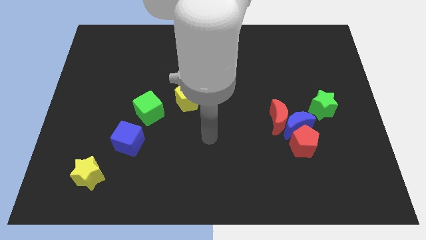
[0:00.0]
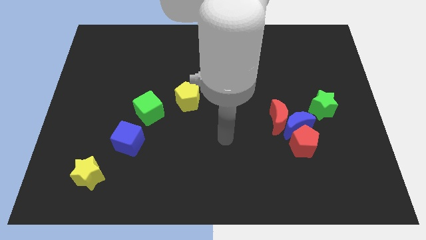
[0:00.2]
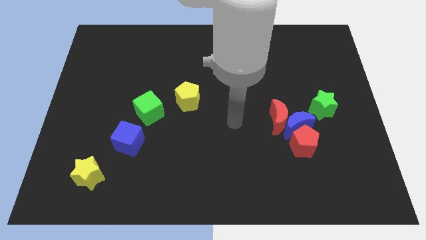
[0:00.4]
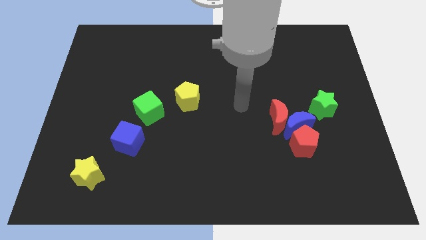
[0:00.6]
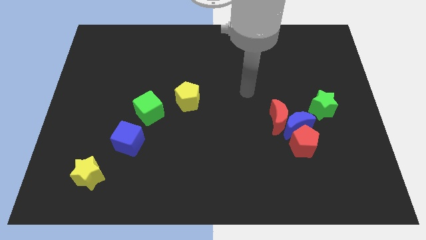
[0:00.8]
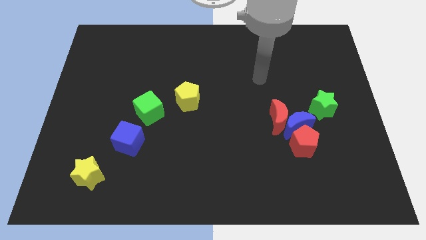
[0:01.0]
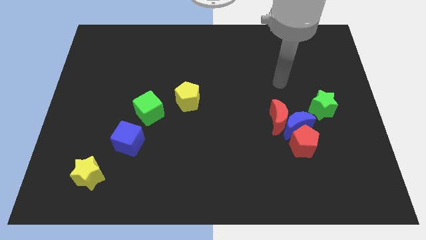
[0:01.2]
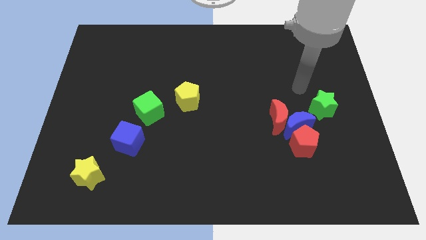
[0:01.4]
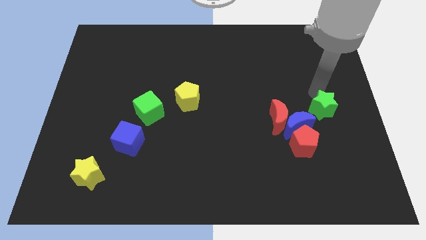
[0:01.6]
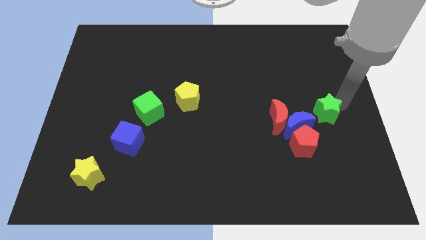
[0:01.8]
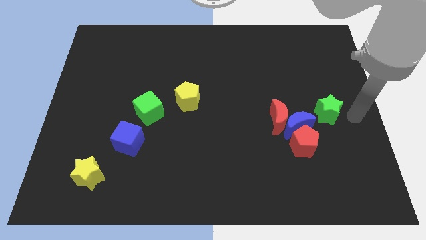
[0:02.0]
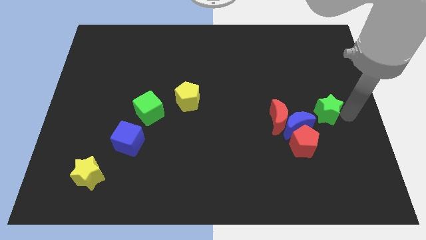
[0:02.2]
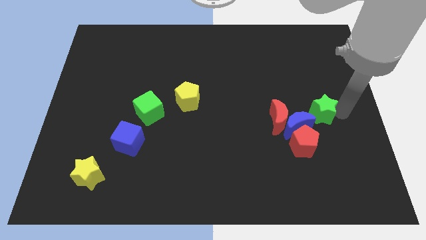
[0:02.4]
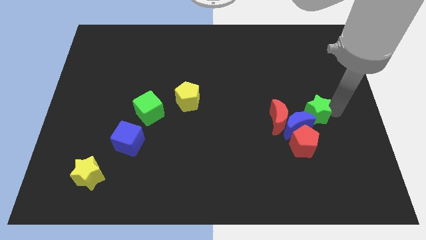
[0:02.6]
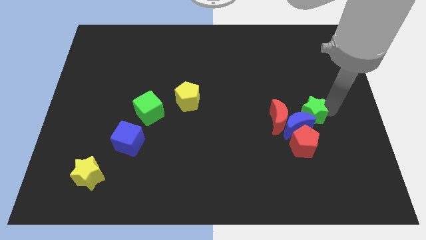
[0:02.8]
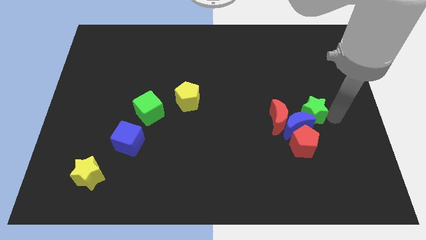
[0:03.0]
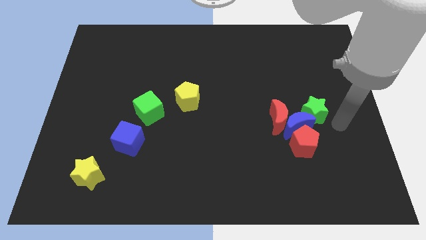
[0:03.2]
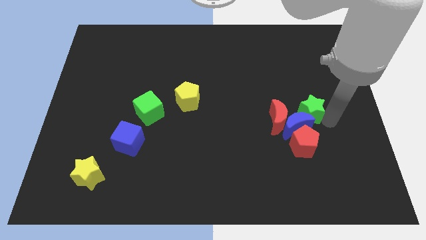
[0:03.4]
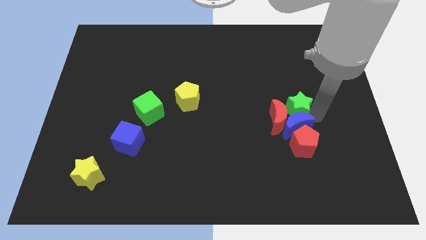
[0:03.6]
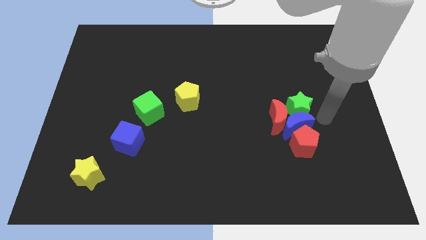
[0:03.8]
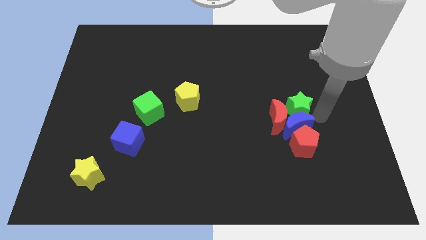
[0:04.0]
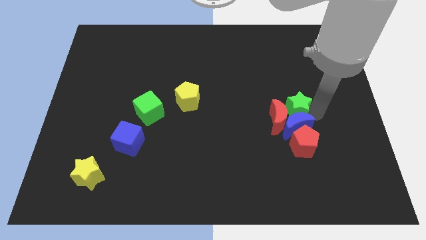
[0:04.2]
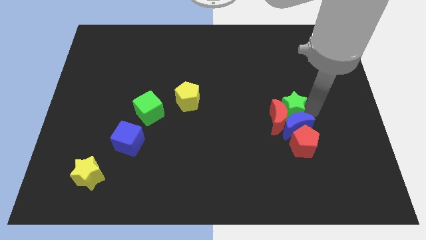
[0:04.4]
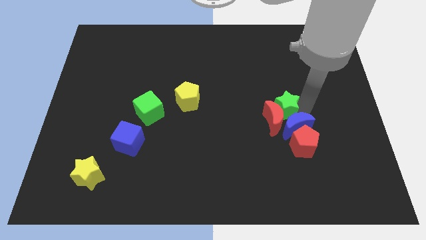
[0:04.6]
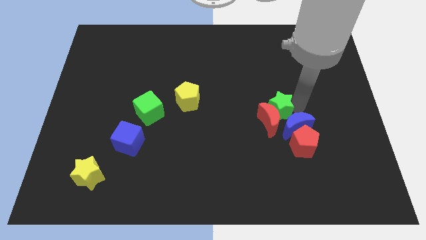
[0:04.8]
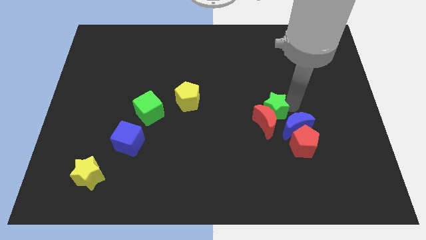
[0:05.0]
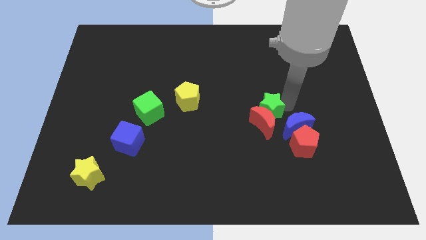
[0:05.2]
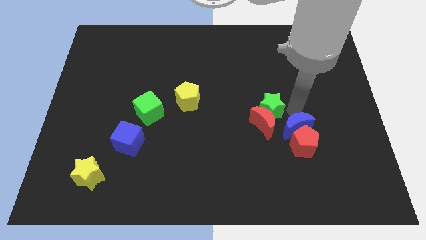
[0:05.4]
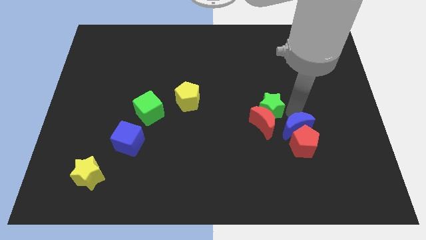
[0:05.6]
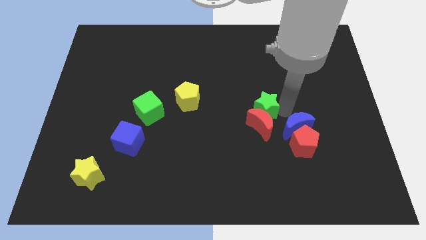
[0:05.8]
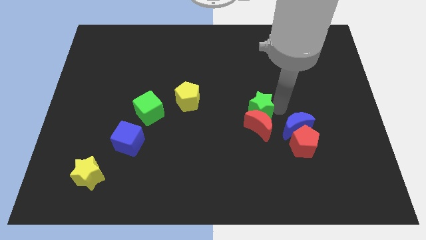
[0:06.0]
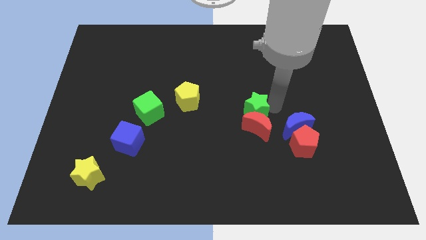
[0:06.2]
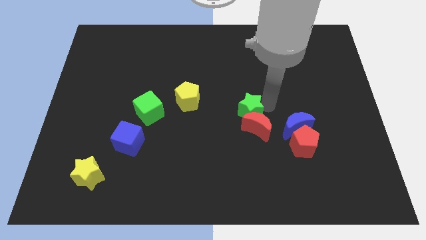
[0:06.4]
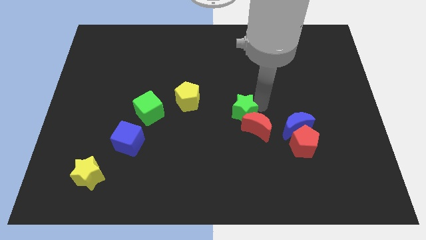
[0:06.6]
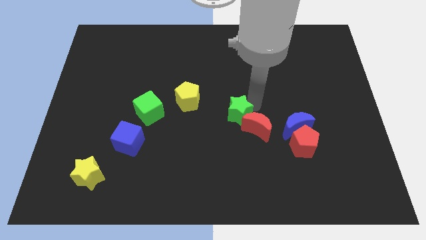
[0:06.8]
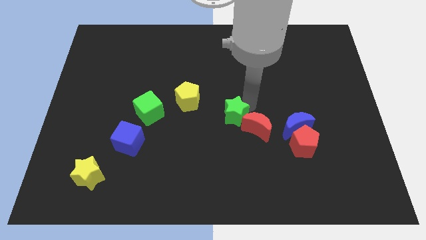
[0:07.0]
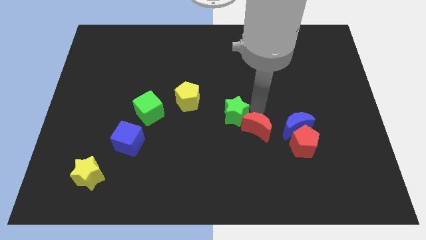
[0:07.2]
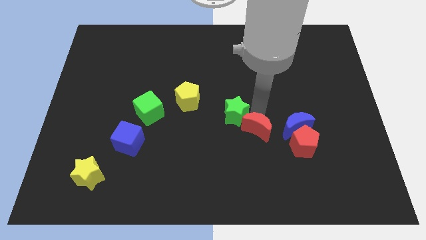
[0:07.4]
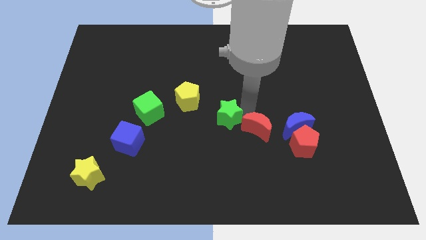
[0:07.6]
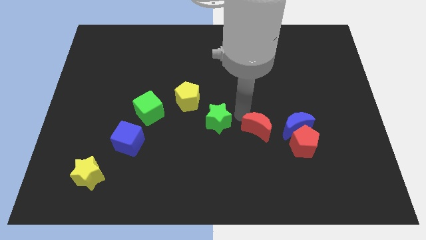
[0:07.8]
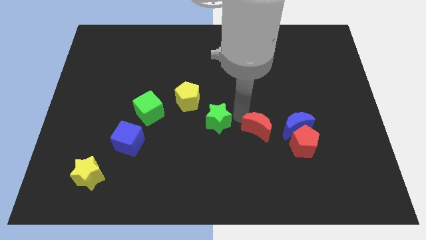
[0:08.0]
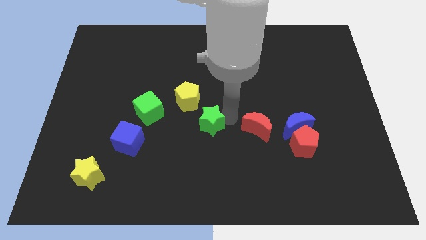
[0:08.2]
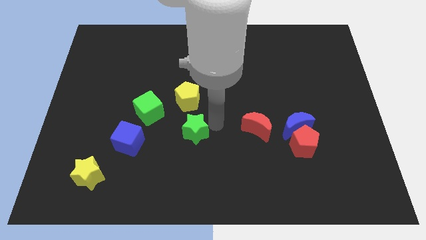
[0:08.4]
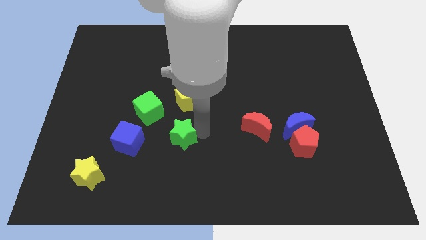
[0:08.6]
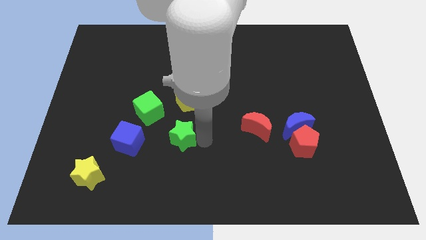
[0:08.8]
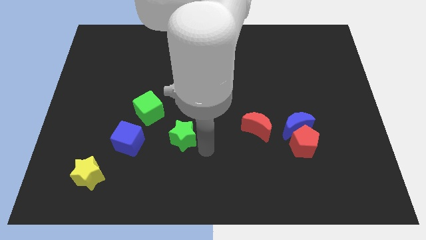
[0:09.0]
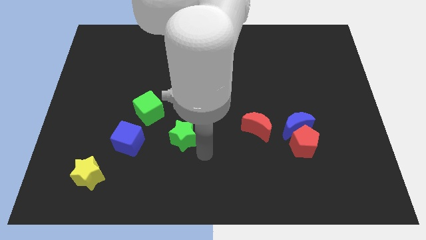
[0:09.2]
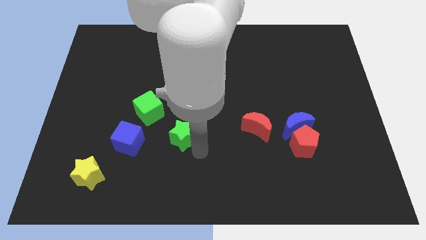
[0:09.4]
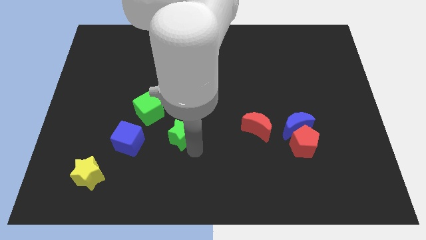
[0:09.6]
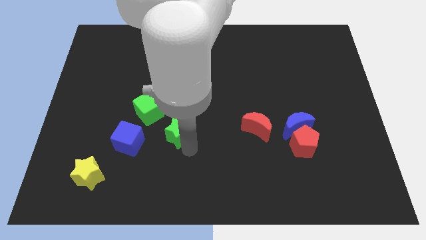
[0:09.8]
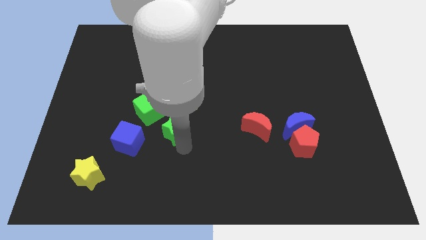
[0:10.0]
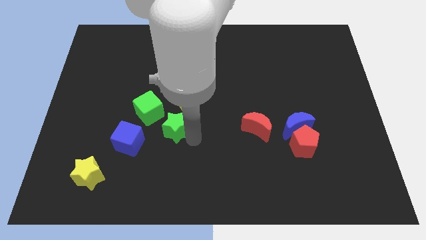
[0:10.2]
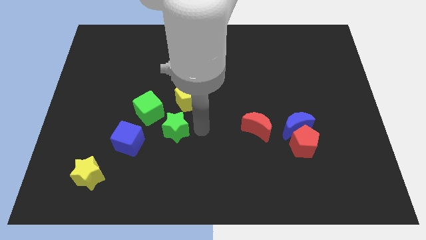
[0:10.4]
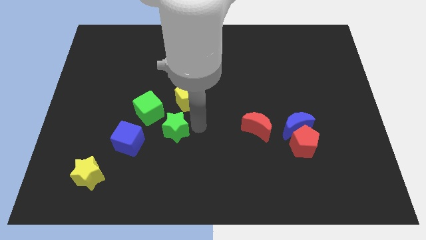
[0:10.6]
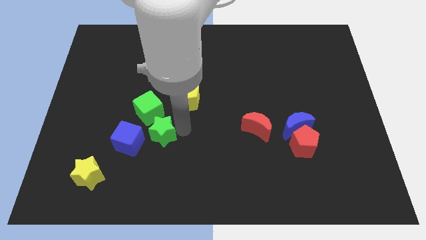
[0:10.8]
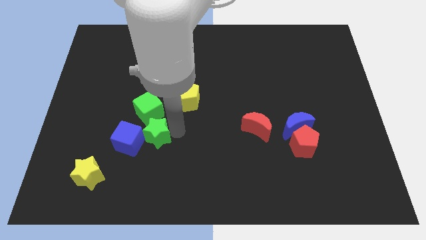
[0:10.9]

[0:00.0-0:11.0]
move the green star towards the blue cube

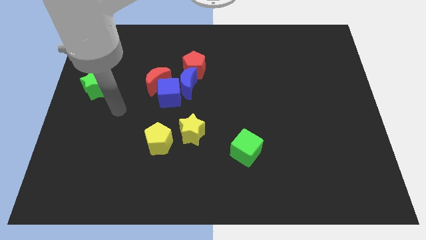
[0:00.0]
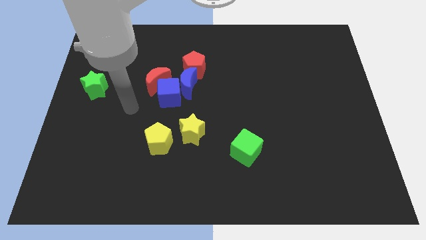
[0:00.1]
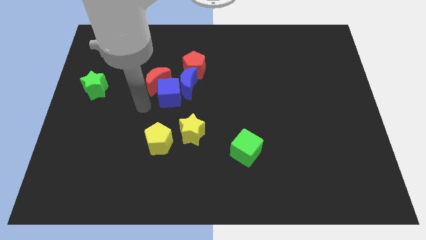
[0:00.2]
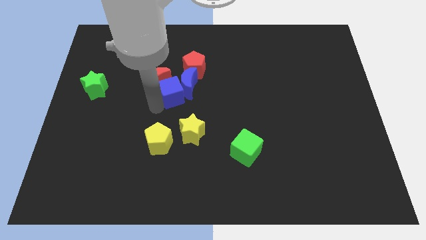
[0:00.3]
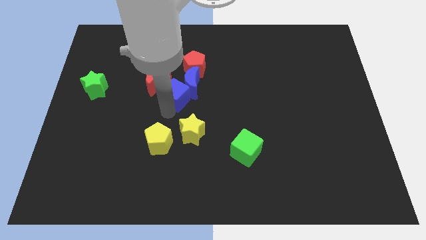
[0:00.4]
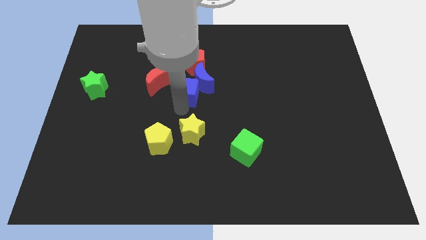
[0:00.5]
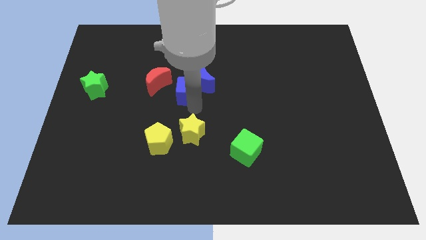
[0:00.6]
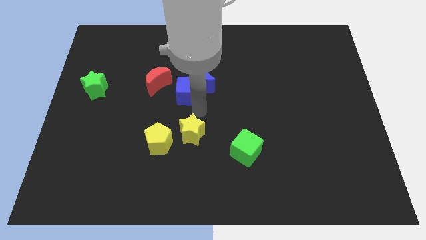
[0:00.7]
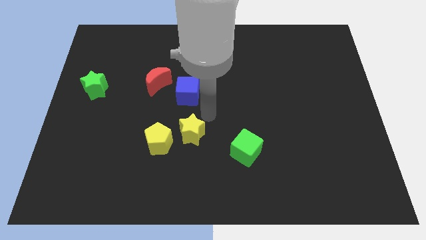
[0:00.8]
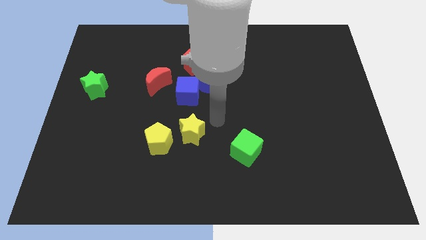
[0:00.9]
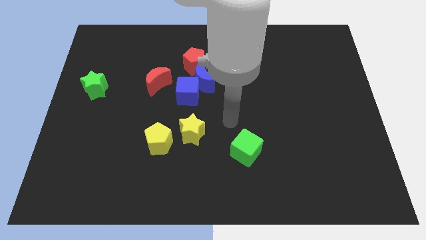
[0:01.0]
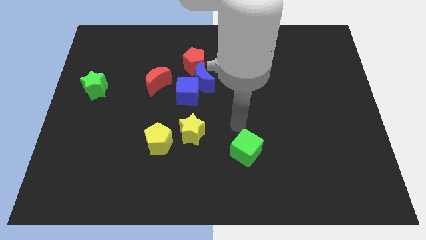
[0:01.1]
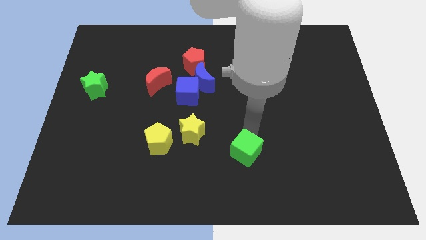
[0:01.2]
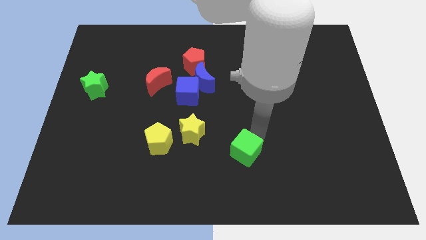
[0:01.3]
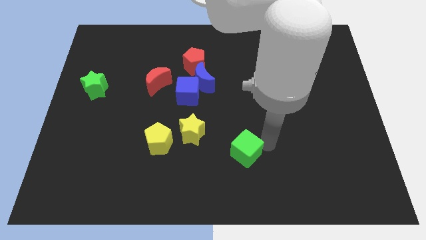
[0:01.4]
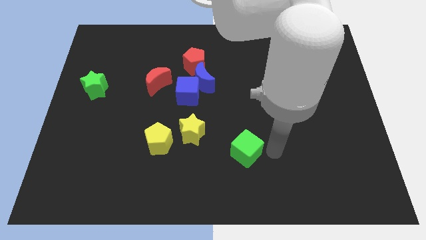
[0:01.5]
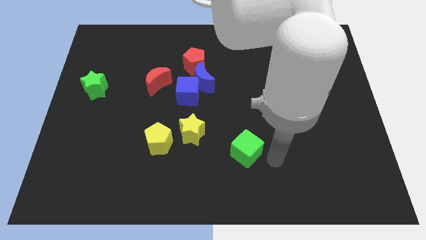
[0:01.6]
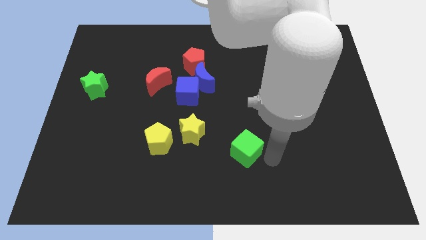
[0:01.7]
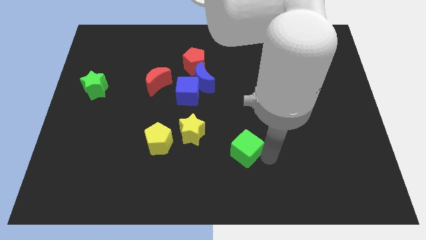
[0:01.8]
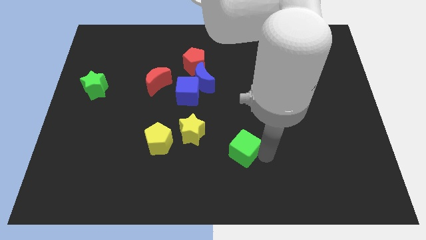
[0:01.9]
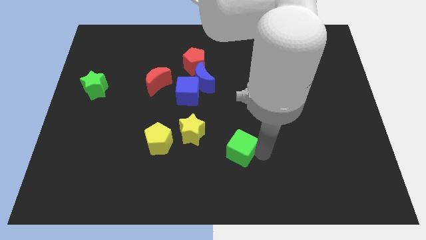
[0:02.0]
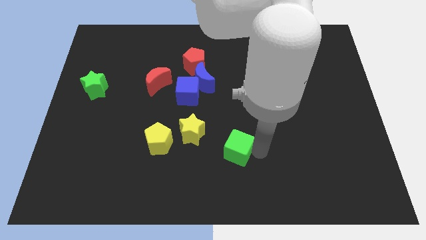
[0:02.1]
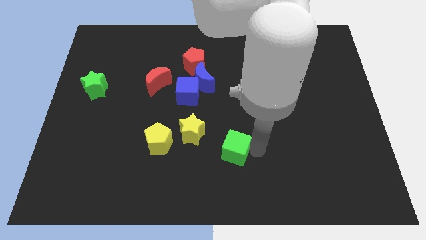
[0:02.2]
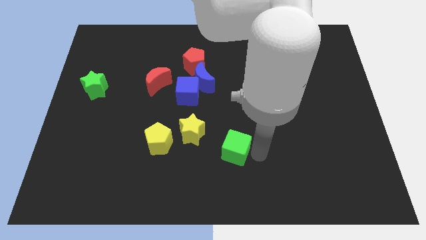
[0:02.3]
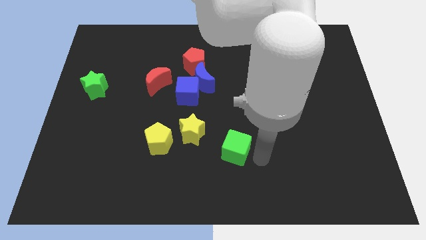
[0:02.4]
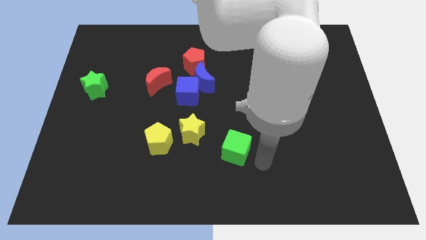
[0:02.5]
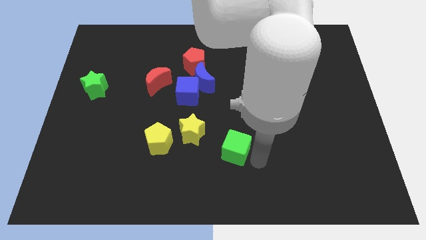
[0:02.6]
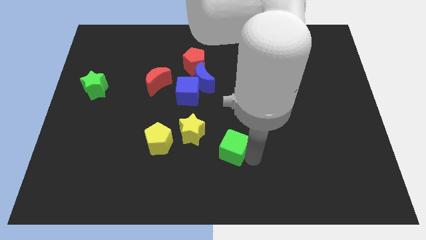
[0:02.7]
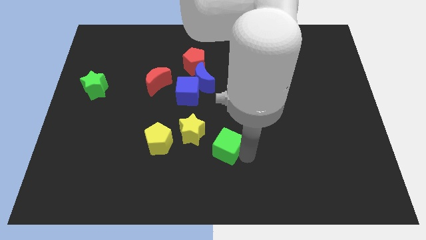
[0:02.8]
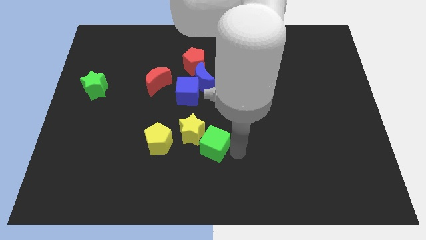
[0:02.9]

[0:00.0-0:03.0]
move the green cube next to the yellow star
